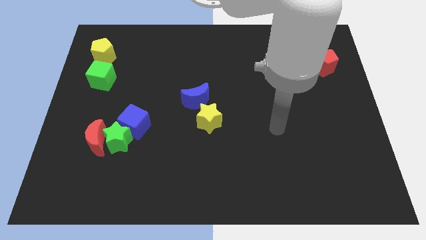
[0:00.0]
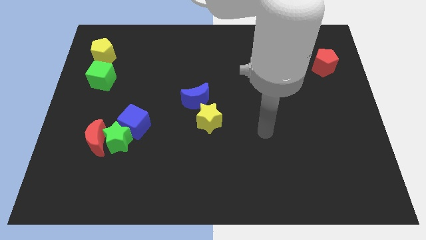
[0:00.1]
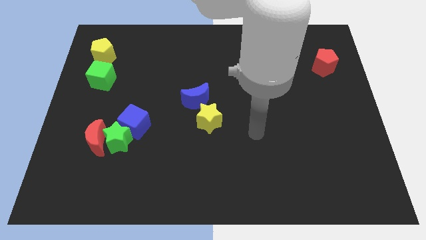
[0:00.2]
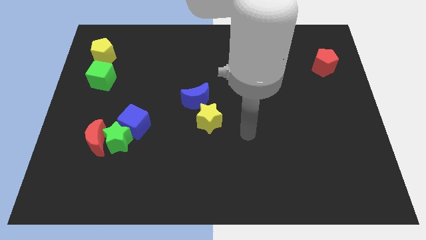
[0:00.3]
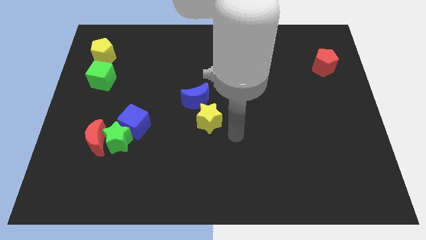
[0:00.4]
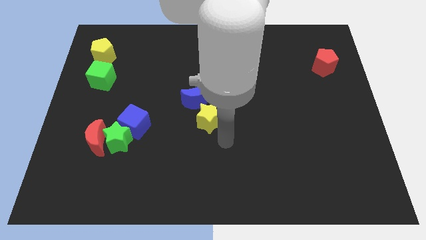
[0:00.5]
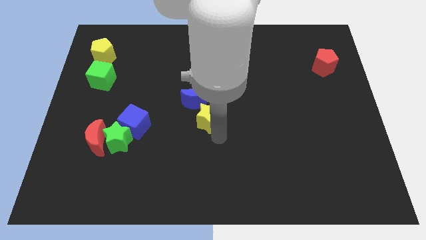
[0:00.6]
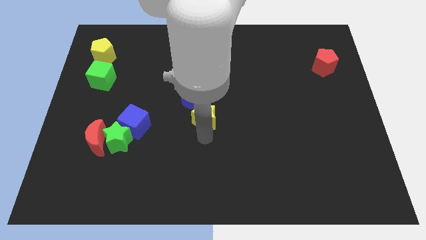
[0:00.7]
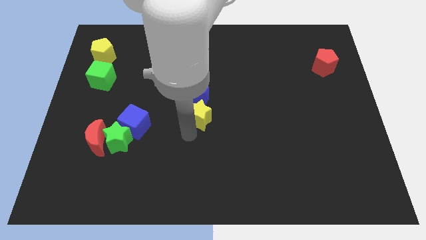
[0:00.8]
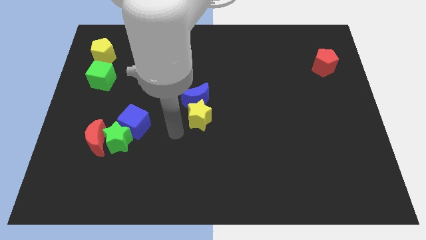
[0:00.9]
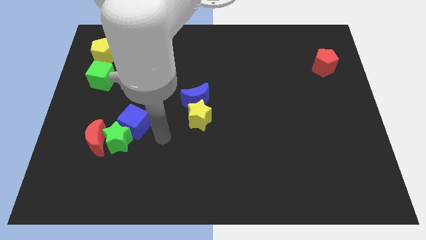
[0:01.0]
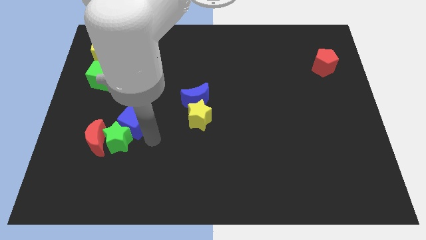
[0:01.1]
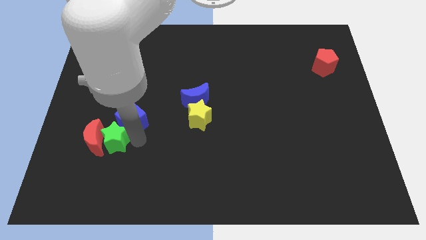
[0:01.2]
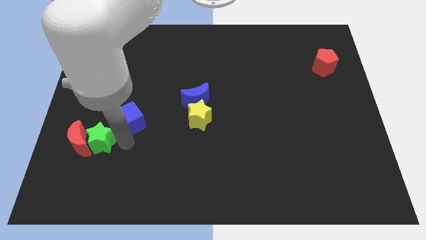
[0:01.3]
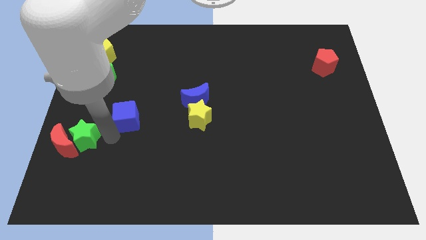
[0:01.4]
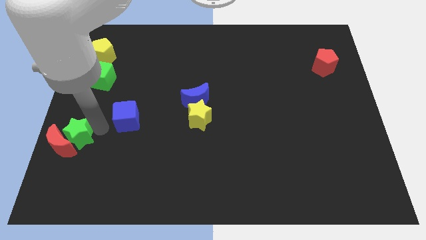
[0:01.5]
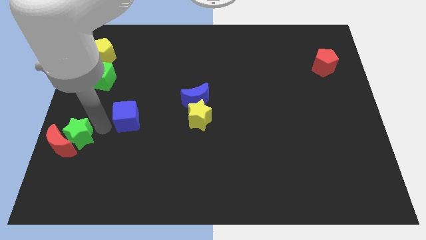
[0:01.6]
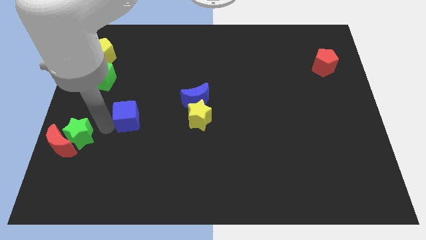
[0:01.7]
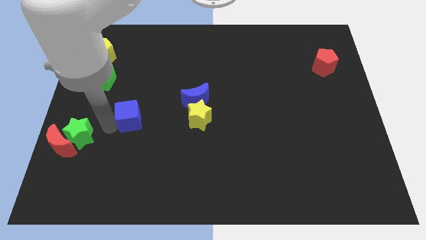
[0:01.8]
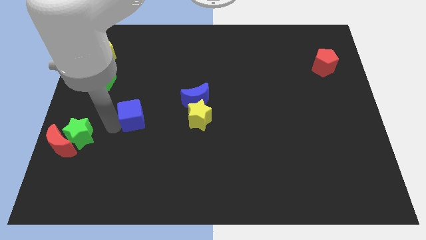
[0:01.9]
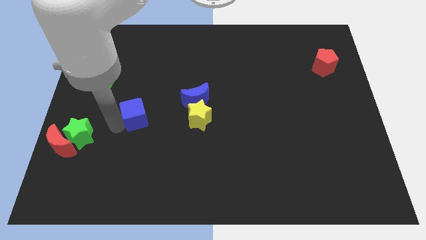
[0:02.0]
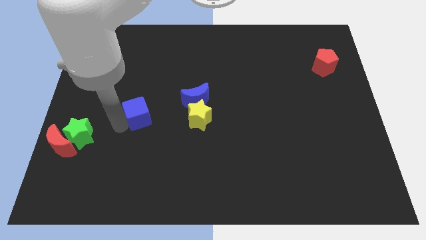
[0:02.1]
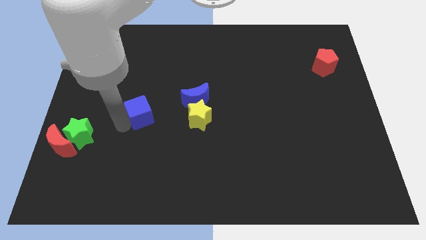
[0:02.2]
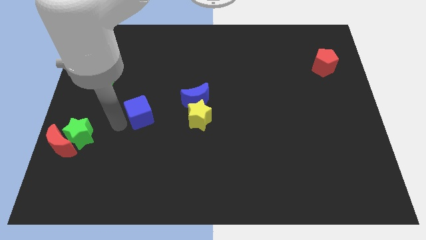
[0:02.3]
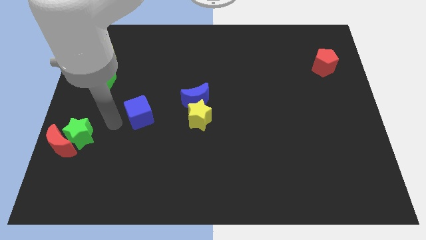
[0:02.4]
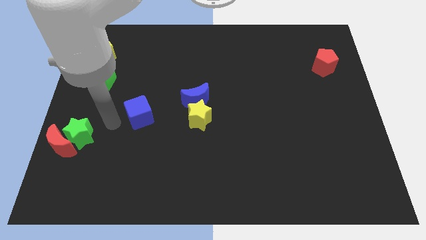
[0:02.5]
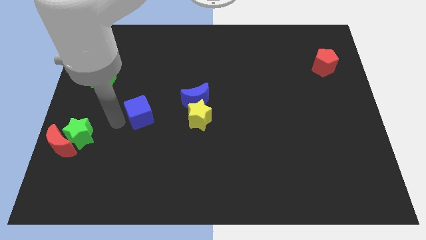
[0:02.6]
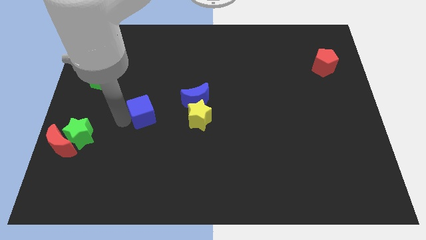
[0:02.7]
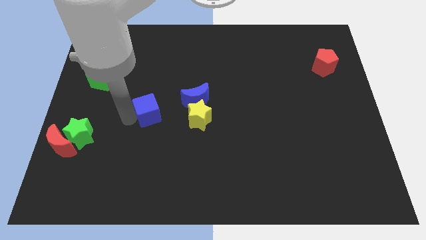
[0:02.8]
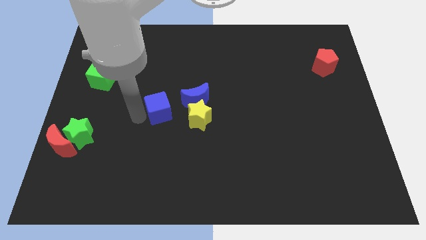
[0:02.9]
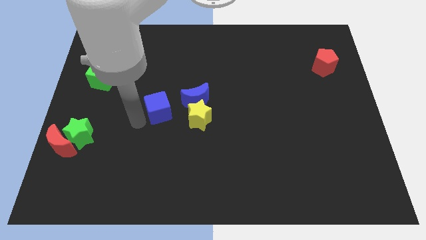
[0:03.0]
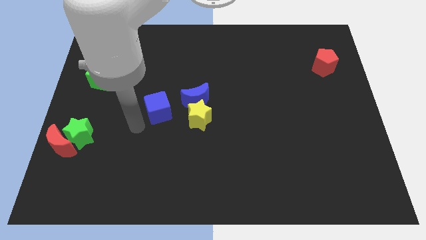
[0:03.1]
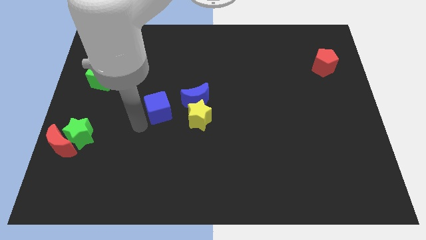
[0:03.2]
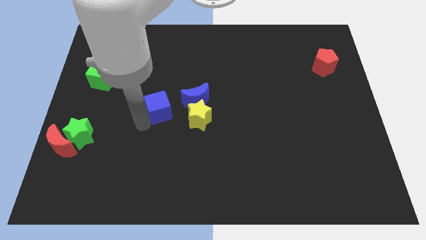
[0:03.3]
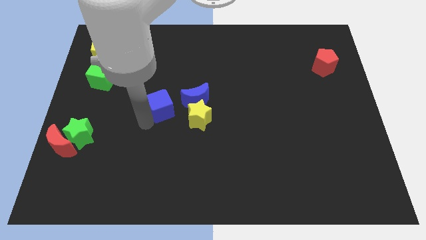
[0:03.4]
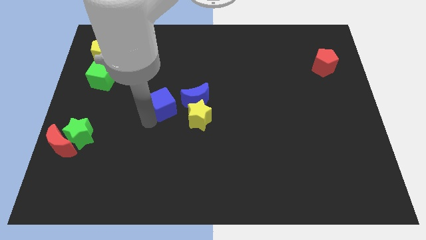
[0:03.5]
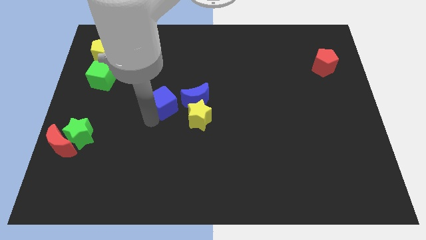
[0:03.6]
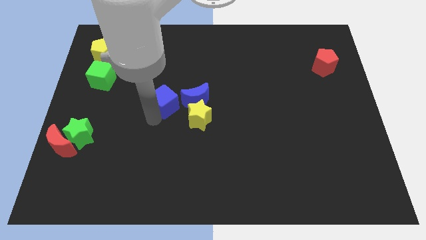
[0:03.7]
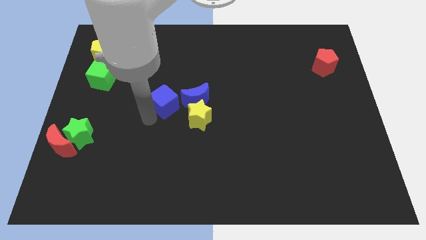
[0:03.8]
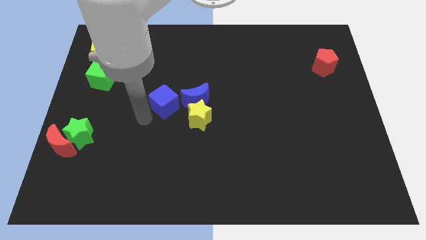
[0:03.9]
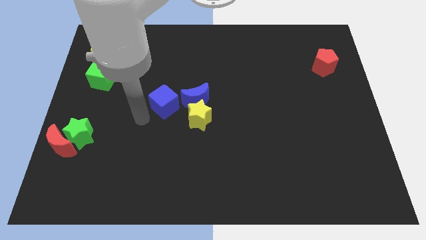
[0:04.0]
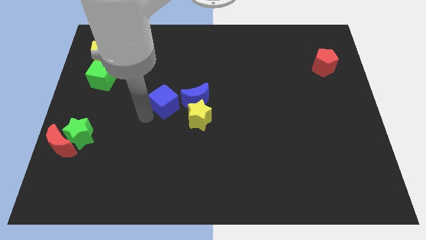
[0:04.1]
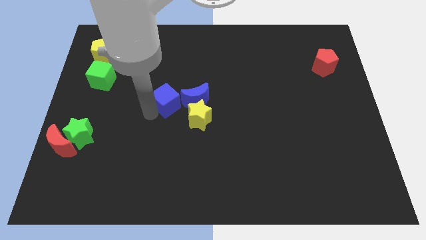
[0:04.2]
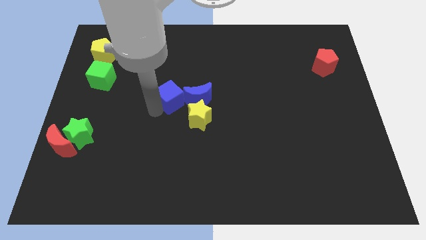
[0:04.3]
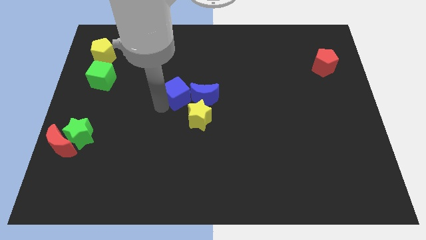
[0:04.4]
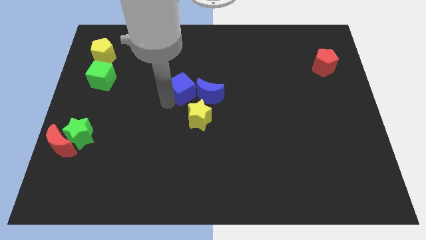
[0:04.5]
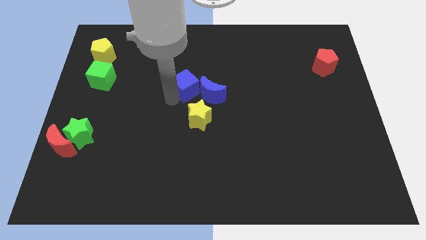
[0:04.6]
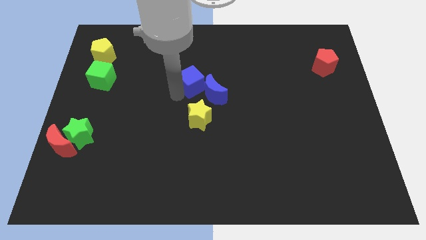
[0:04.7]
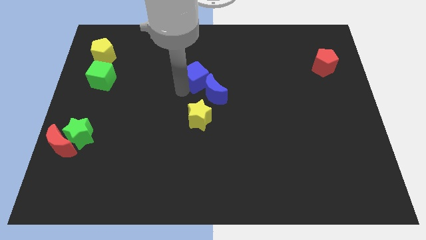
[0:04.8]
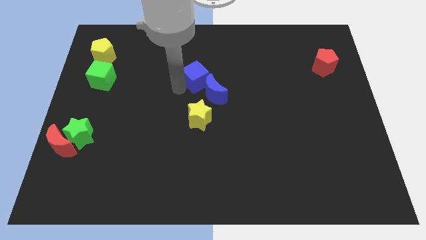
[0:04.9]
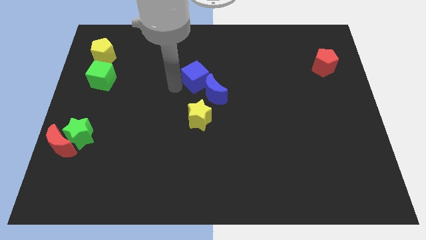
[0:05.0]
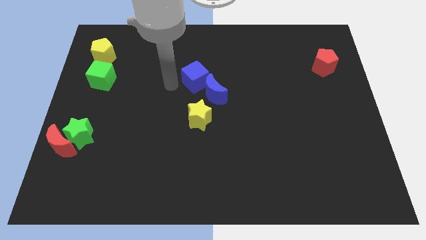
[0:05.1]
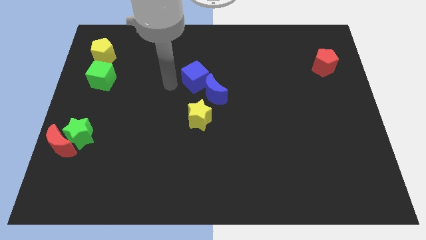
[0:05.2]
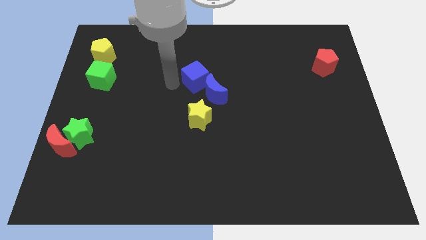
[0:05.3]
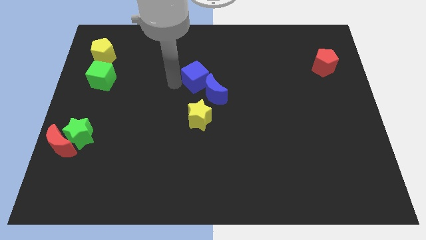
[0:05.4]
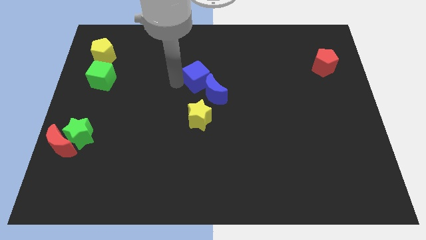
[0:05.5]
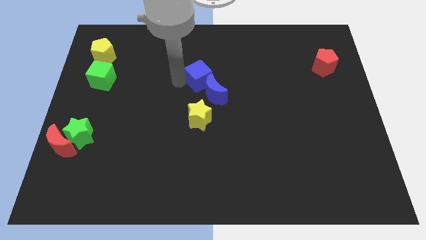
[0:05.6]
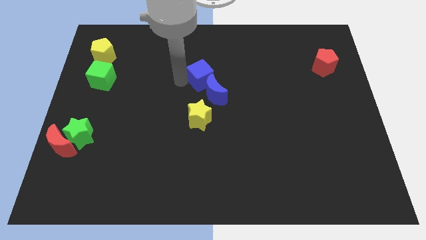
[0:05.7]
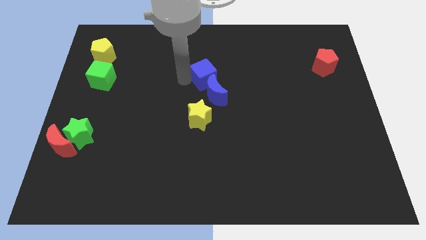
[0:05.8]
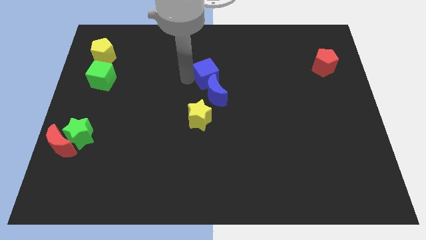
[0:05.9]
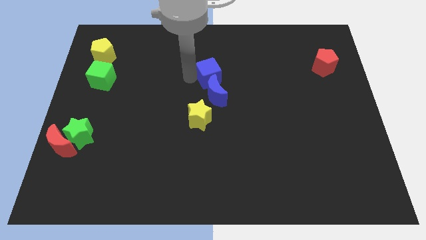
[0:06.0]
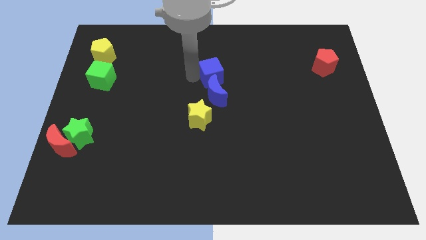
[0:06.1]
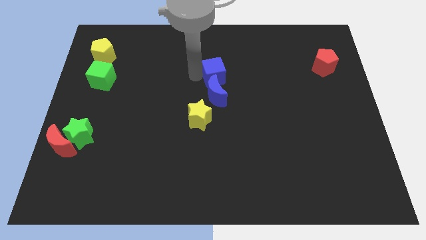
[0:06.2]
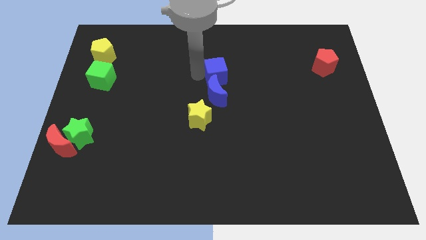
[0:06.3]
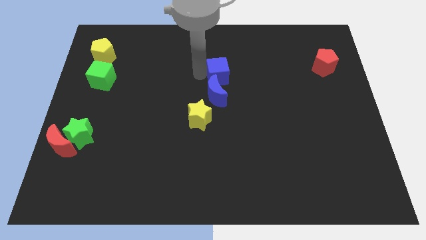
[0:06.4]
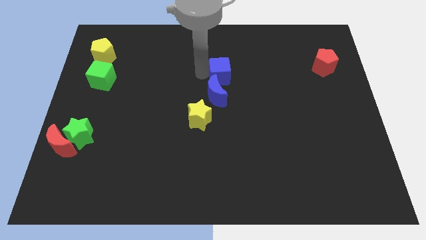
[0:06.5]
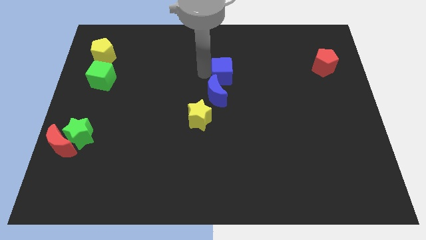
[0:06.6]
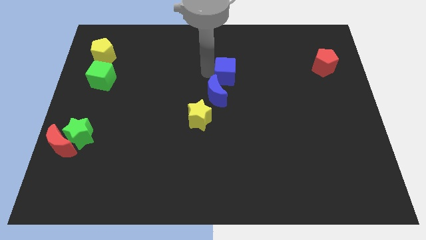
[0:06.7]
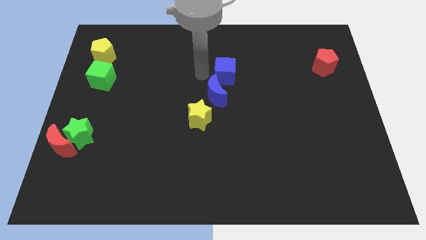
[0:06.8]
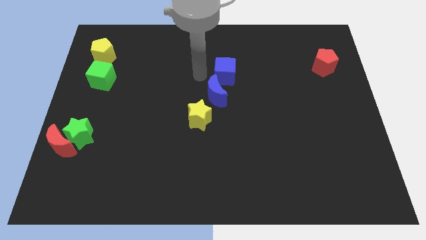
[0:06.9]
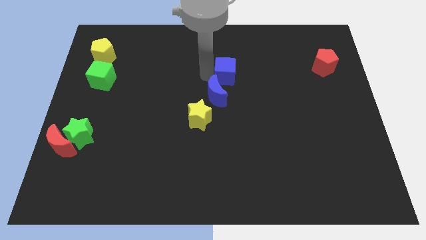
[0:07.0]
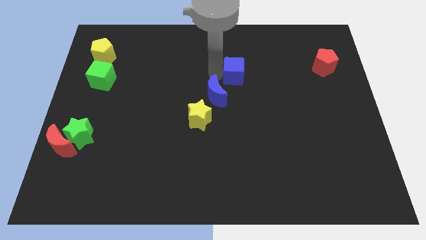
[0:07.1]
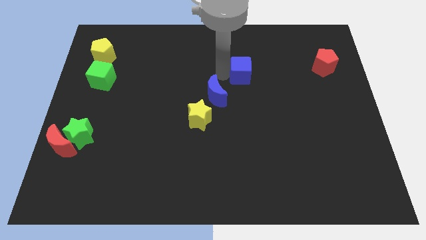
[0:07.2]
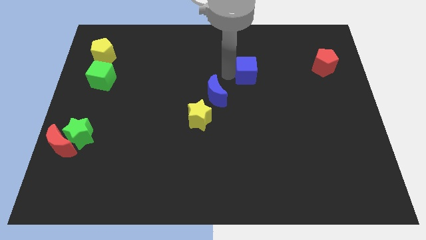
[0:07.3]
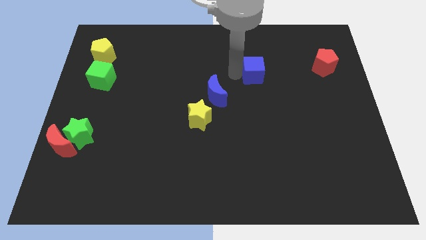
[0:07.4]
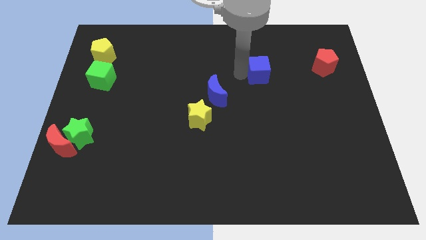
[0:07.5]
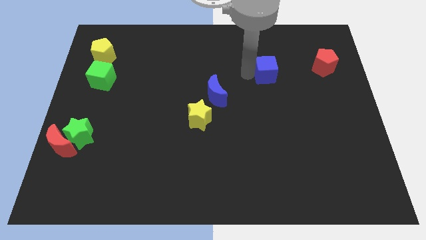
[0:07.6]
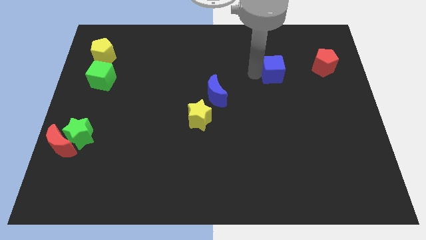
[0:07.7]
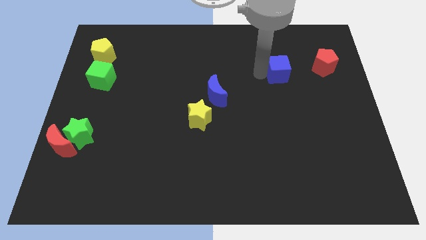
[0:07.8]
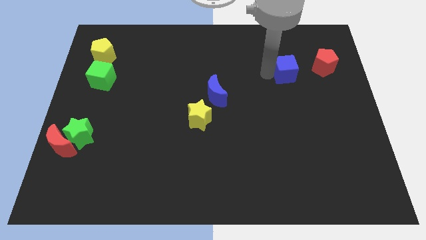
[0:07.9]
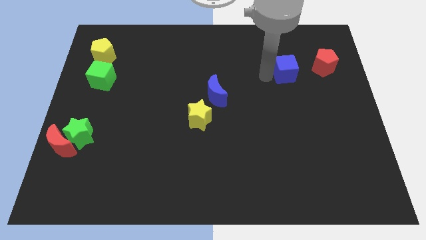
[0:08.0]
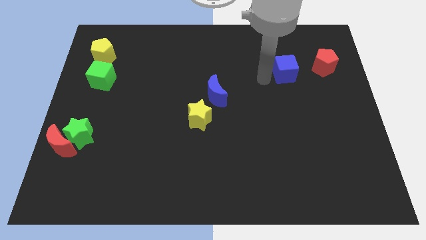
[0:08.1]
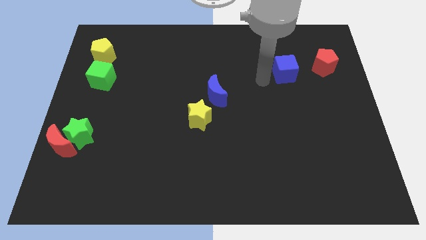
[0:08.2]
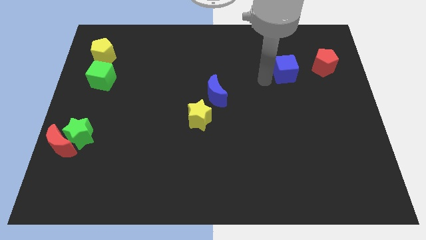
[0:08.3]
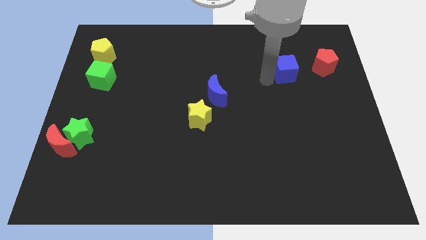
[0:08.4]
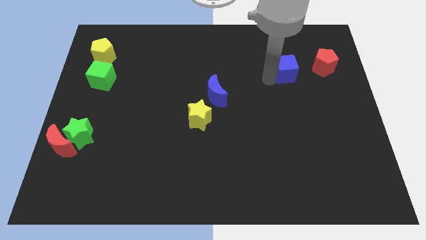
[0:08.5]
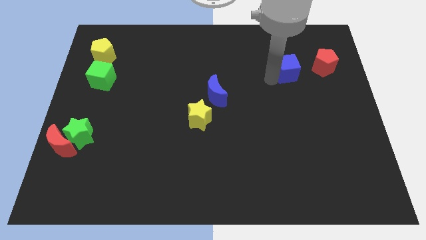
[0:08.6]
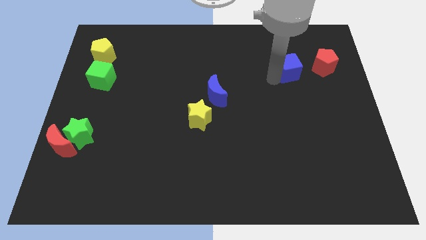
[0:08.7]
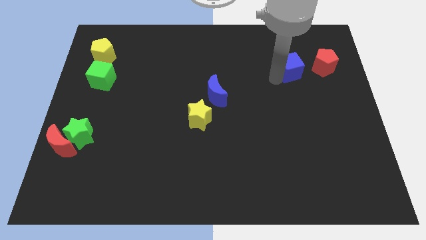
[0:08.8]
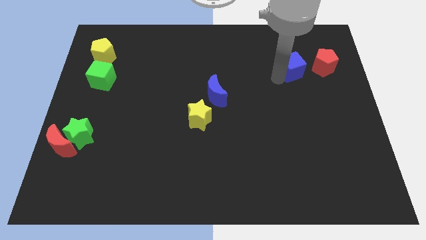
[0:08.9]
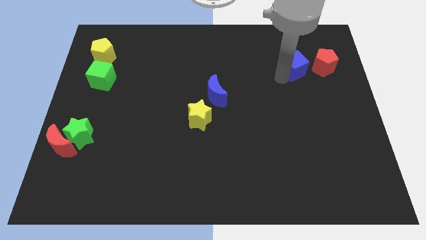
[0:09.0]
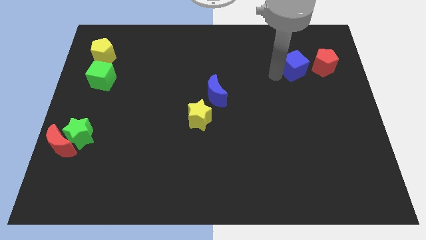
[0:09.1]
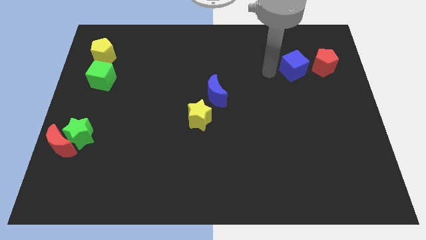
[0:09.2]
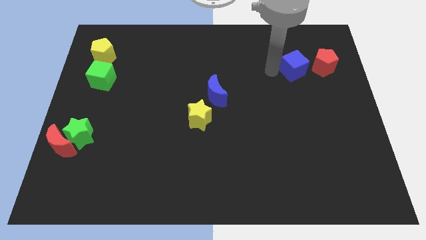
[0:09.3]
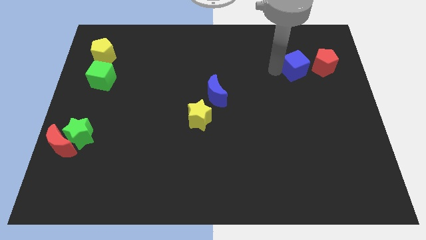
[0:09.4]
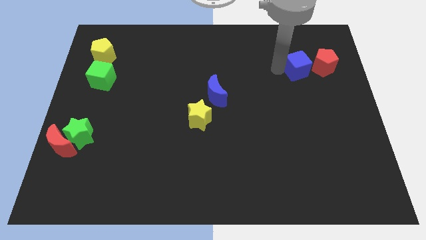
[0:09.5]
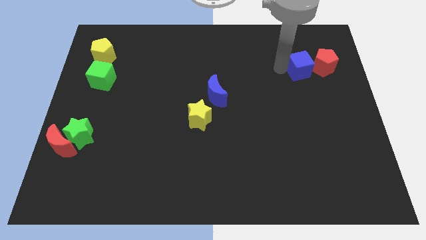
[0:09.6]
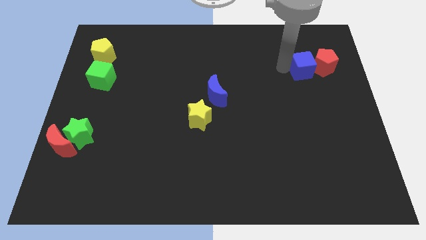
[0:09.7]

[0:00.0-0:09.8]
slide the blue cube to the red pentagon
